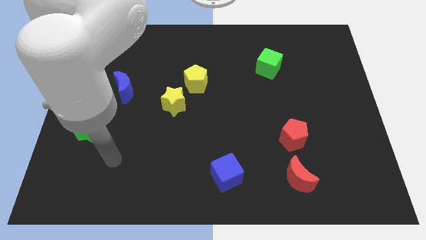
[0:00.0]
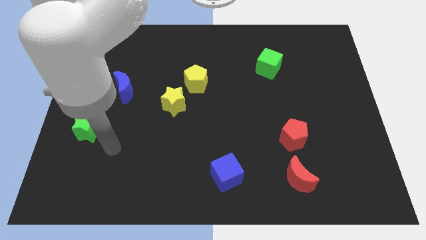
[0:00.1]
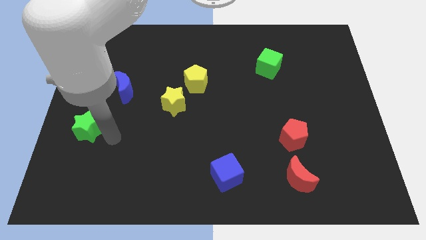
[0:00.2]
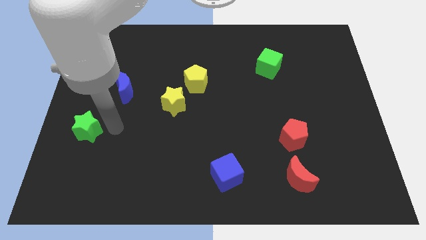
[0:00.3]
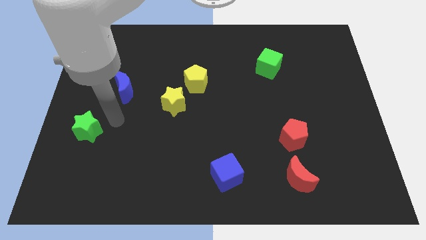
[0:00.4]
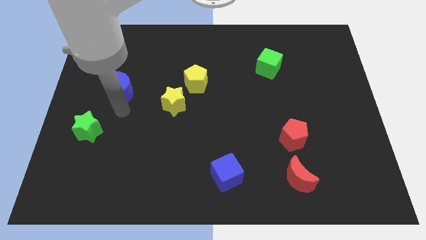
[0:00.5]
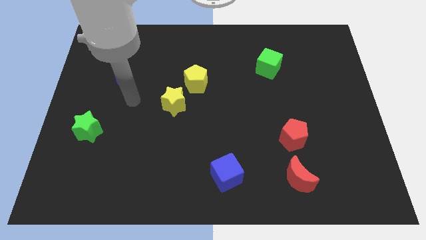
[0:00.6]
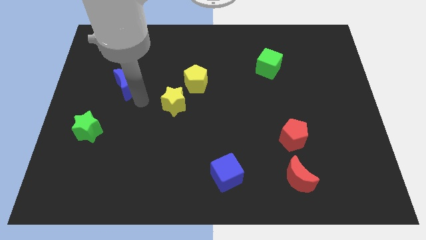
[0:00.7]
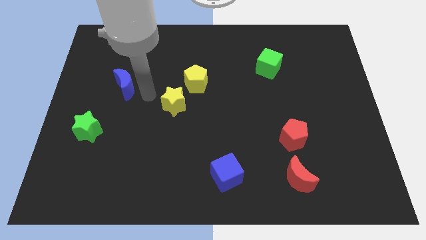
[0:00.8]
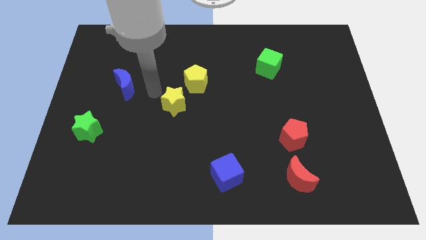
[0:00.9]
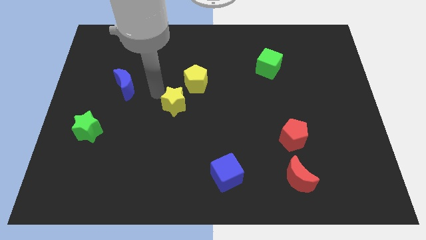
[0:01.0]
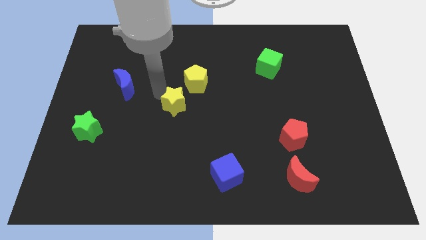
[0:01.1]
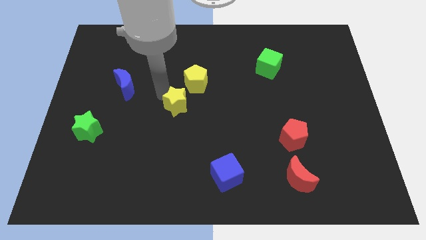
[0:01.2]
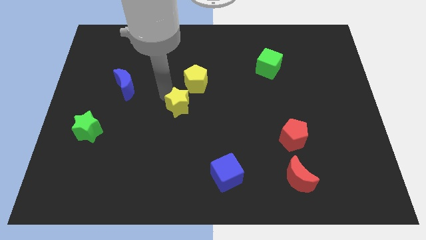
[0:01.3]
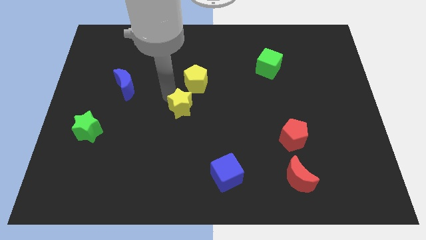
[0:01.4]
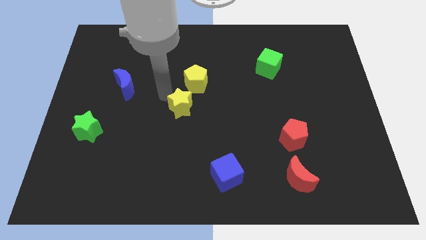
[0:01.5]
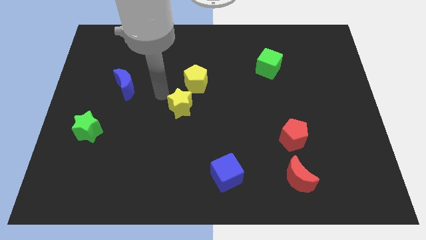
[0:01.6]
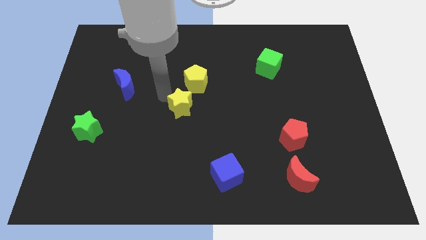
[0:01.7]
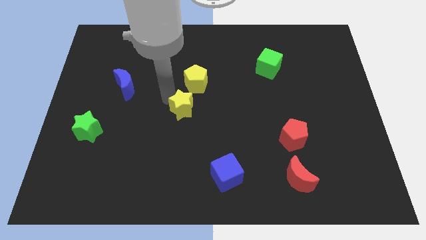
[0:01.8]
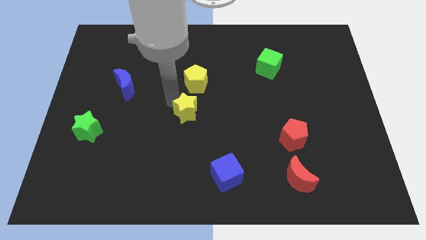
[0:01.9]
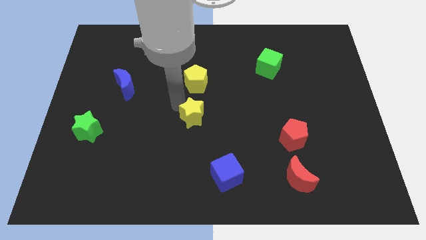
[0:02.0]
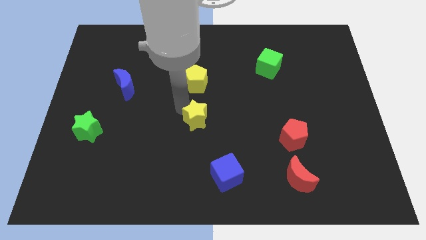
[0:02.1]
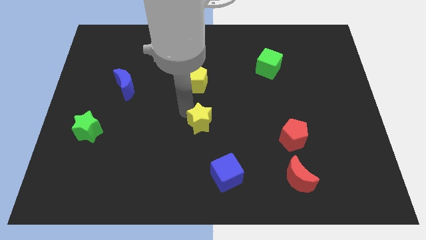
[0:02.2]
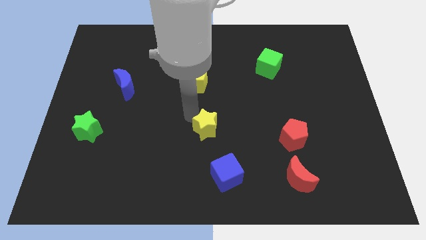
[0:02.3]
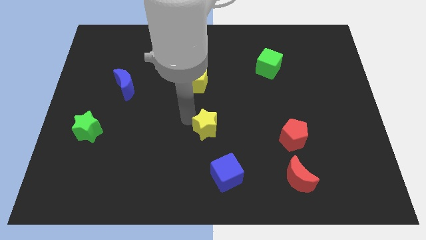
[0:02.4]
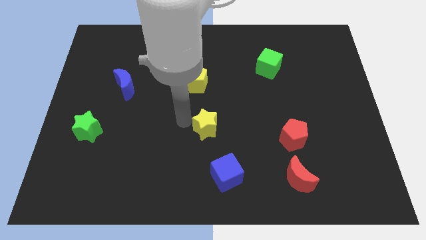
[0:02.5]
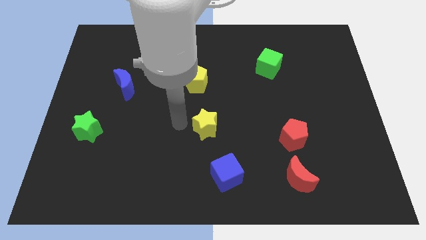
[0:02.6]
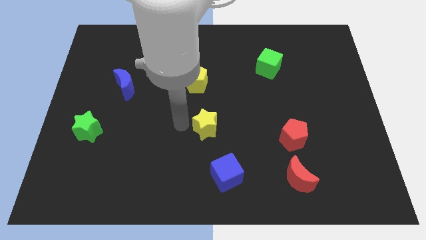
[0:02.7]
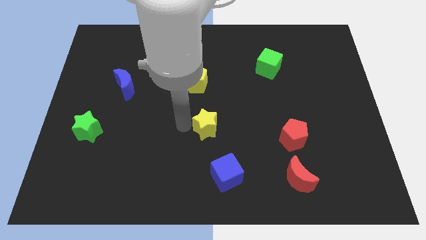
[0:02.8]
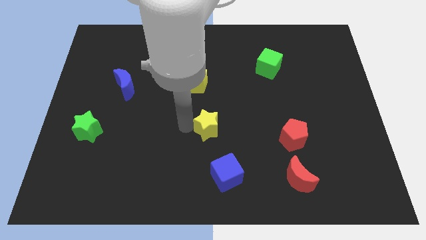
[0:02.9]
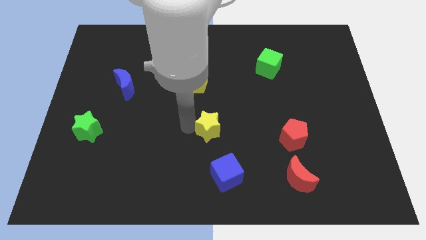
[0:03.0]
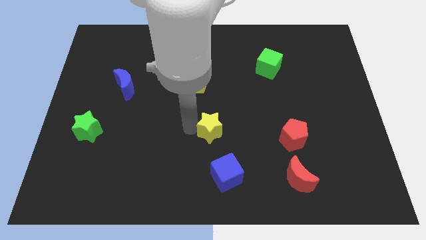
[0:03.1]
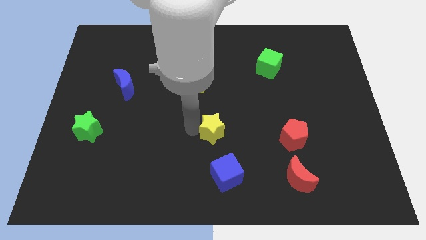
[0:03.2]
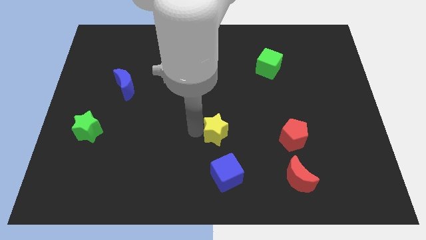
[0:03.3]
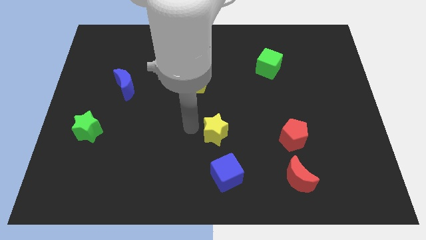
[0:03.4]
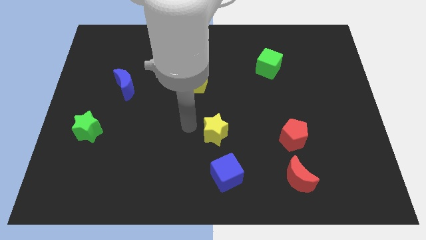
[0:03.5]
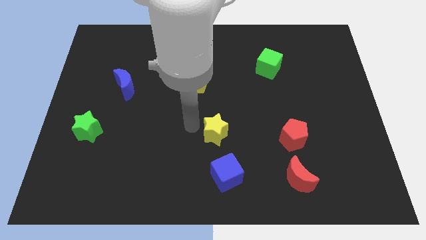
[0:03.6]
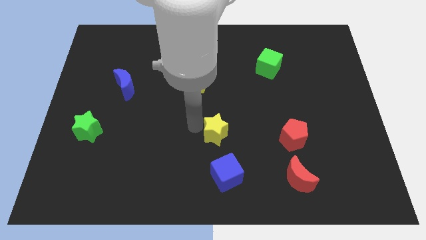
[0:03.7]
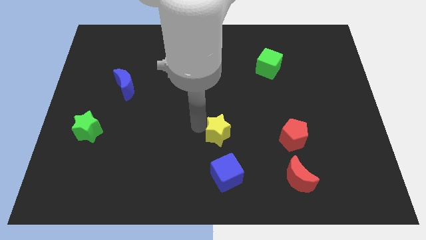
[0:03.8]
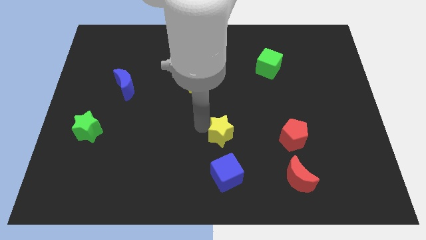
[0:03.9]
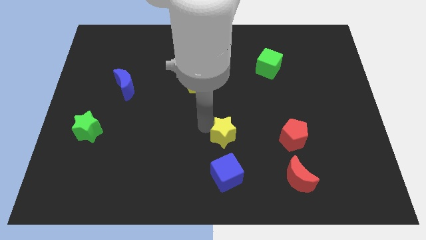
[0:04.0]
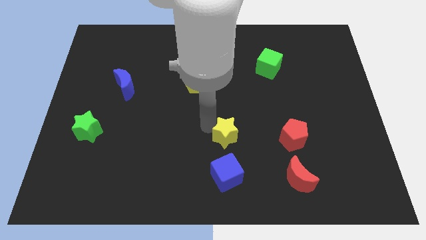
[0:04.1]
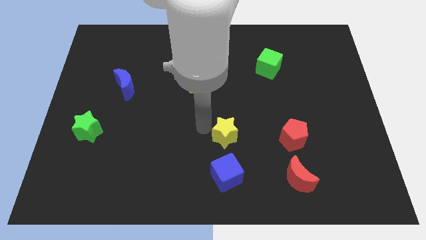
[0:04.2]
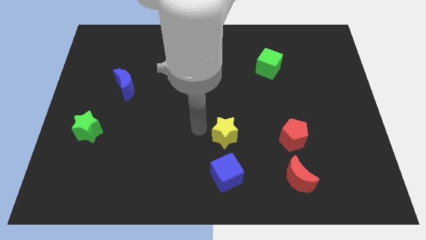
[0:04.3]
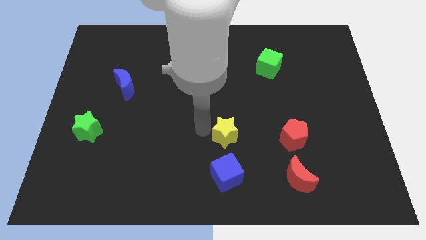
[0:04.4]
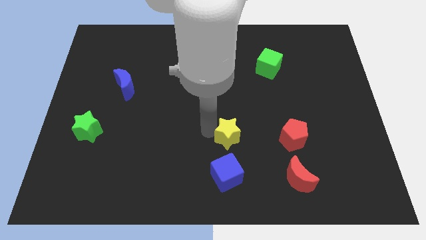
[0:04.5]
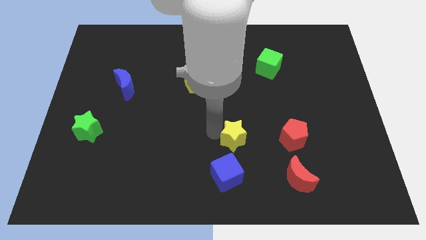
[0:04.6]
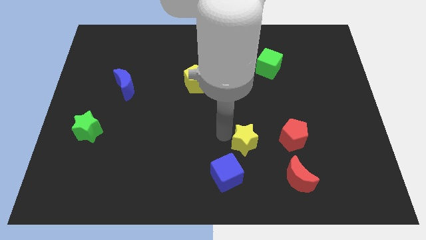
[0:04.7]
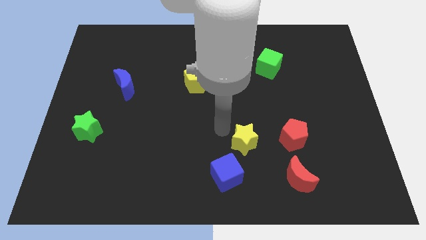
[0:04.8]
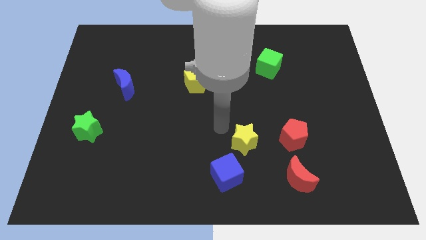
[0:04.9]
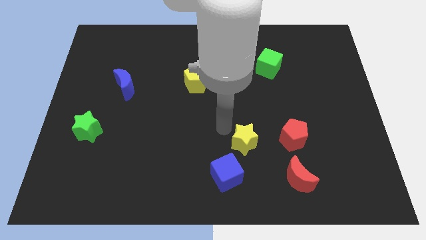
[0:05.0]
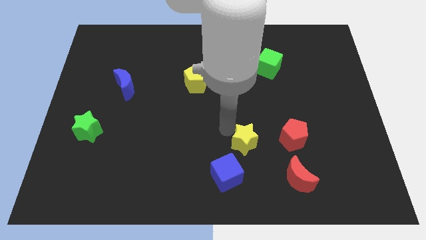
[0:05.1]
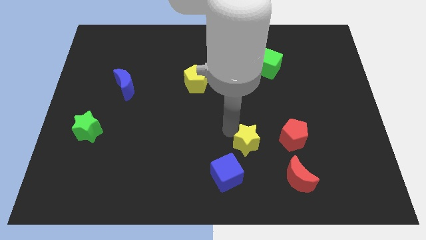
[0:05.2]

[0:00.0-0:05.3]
slide the yellow star diagonally up and to the left of the red moon

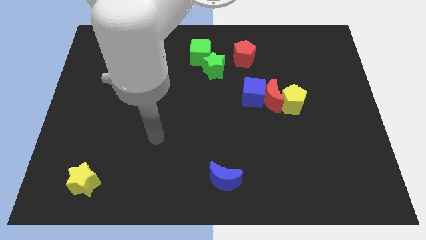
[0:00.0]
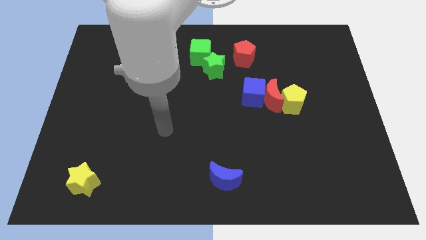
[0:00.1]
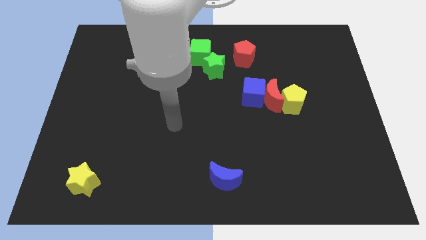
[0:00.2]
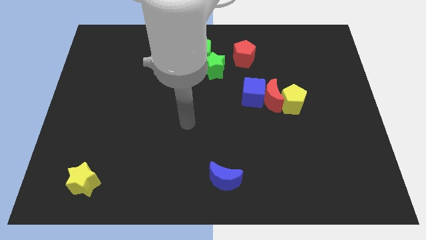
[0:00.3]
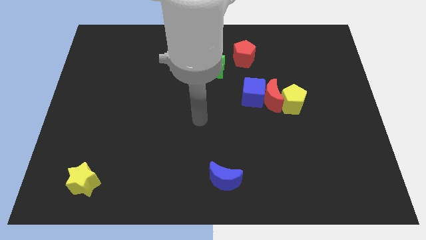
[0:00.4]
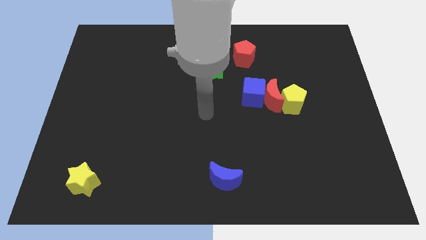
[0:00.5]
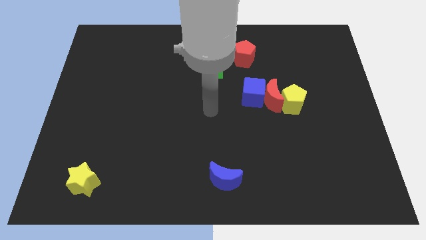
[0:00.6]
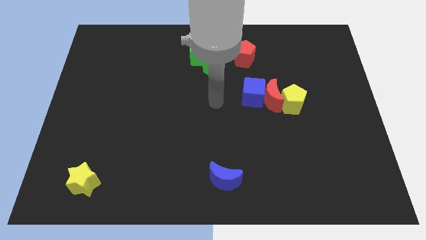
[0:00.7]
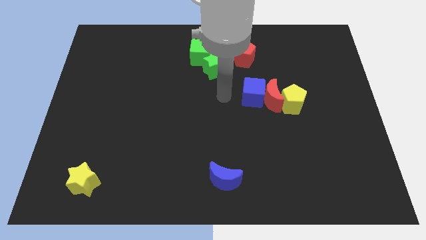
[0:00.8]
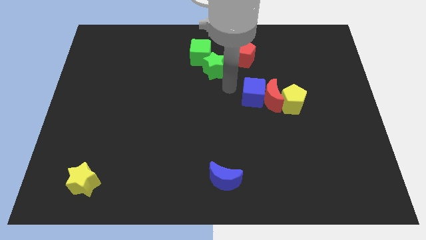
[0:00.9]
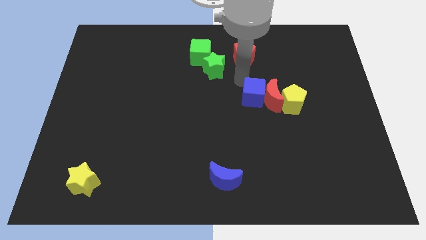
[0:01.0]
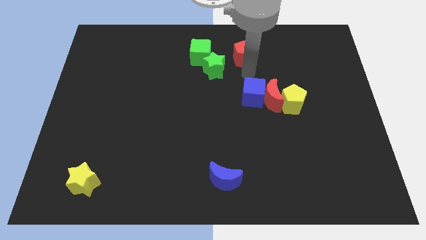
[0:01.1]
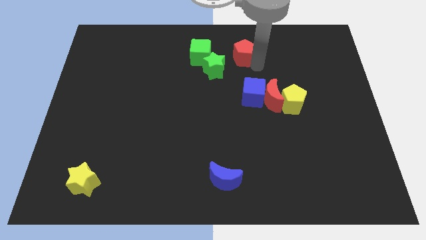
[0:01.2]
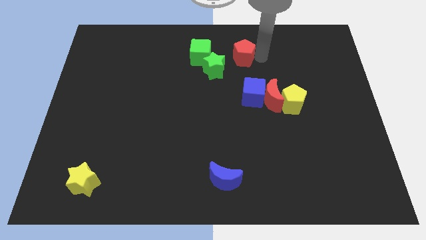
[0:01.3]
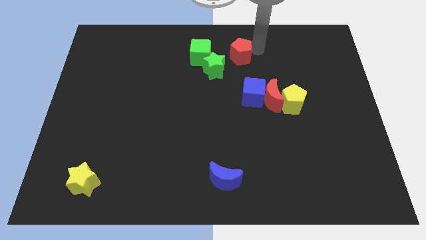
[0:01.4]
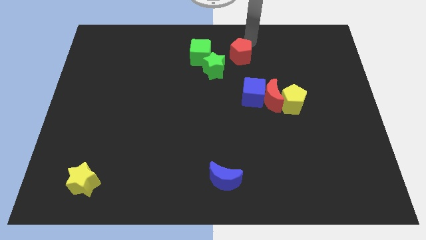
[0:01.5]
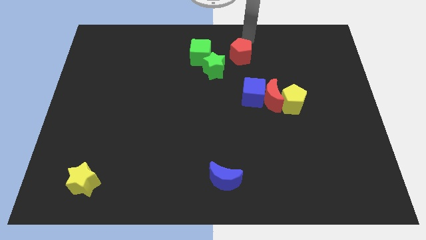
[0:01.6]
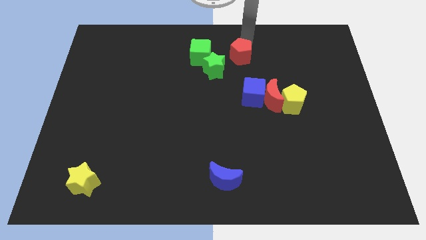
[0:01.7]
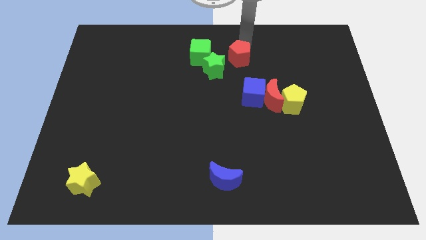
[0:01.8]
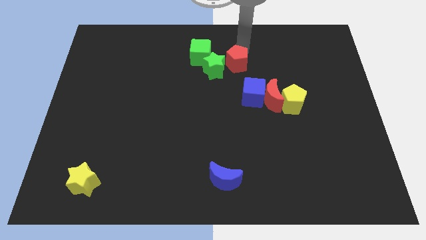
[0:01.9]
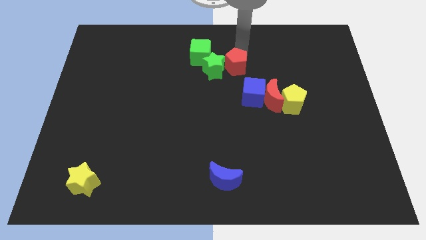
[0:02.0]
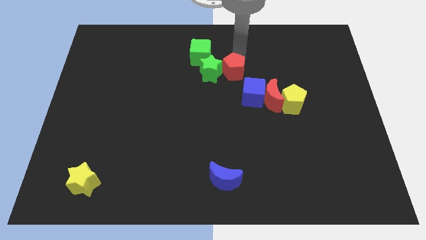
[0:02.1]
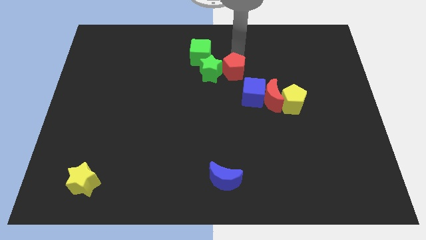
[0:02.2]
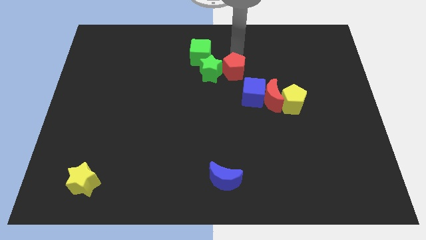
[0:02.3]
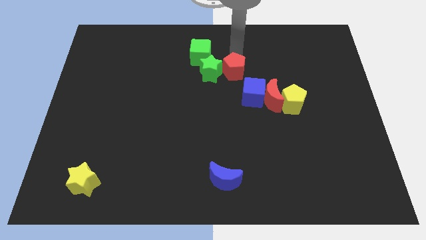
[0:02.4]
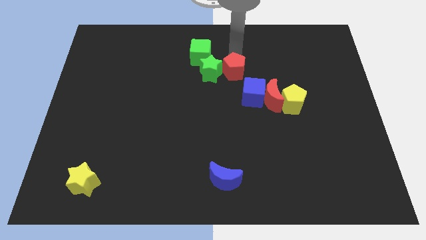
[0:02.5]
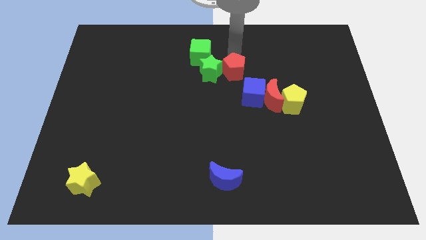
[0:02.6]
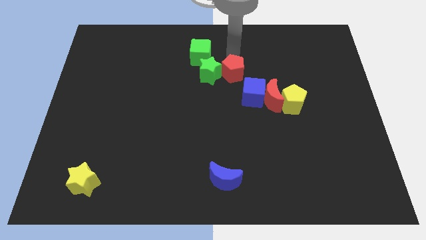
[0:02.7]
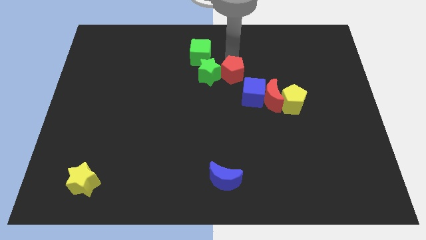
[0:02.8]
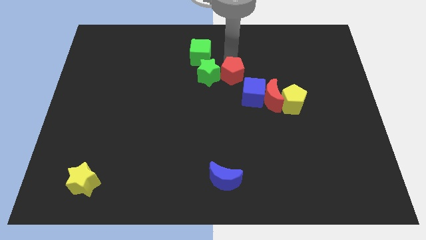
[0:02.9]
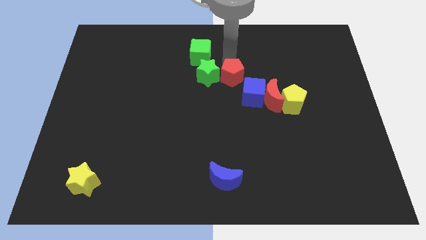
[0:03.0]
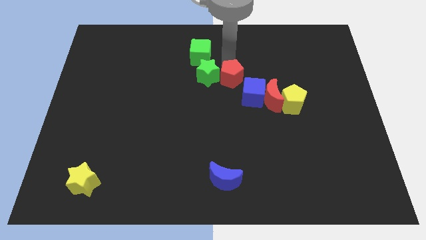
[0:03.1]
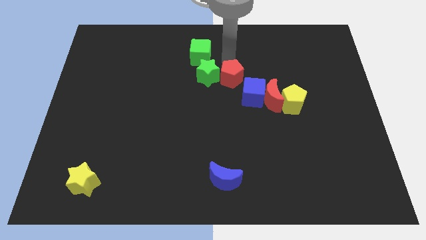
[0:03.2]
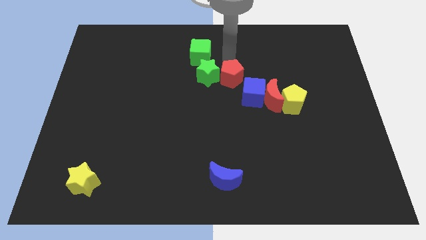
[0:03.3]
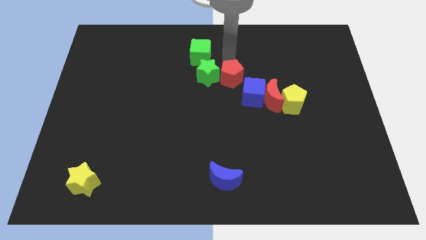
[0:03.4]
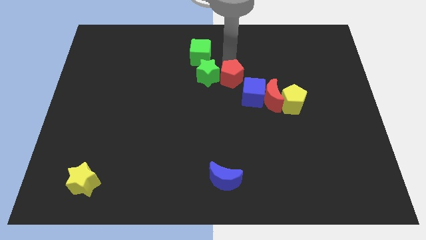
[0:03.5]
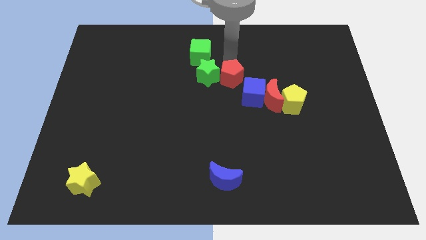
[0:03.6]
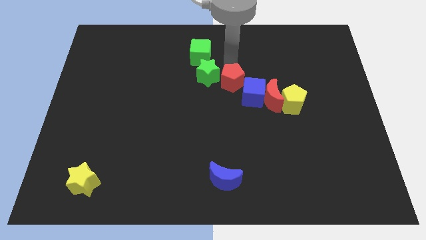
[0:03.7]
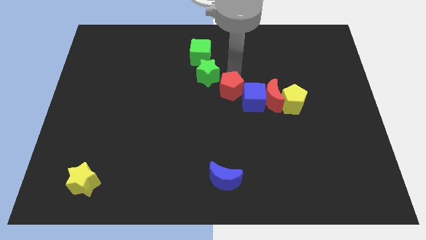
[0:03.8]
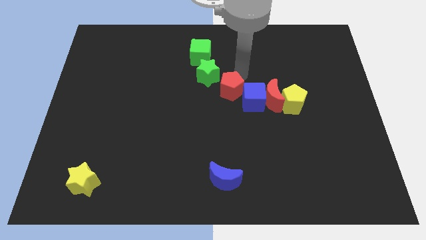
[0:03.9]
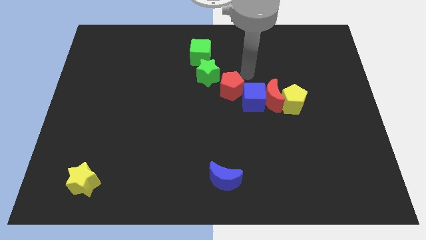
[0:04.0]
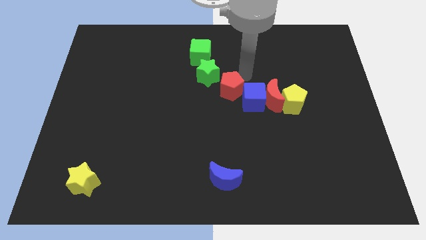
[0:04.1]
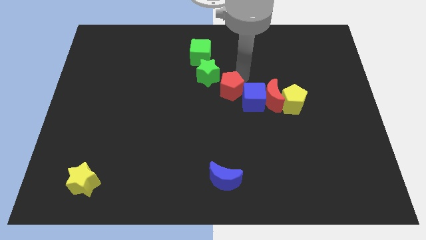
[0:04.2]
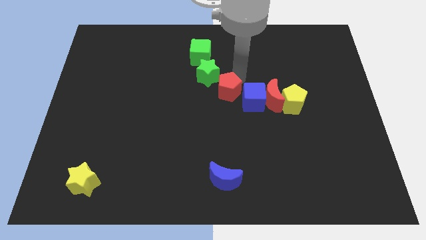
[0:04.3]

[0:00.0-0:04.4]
push the red pentagon to the bottom side of the green star
